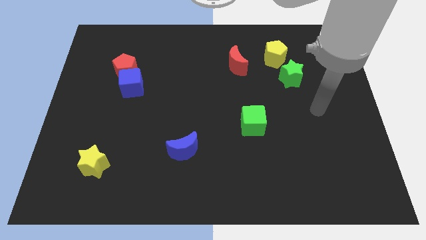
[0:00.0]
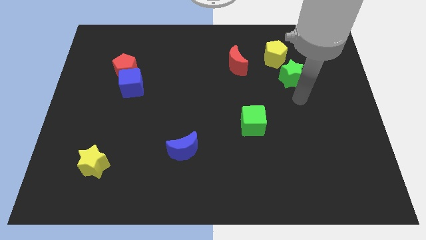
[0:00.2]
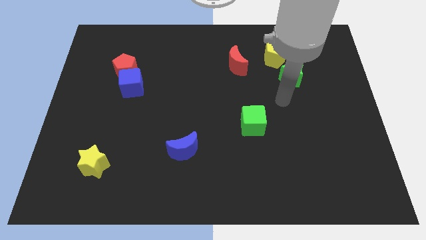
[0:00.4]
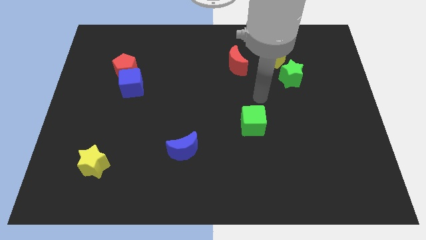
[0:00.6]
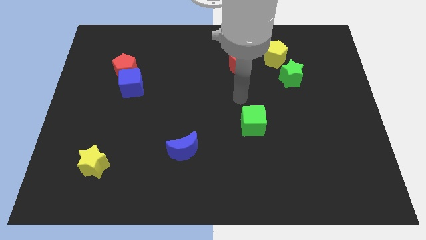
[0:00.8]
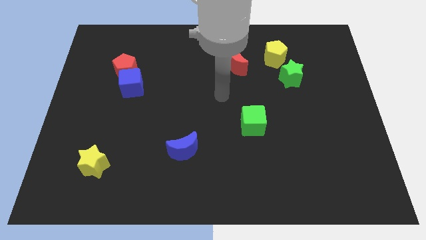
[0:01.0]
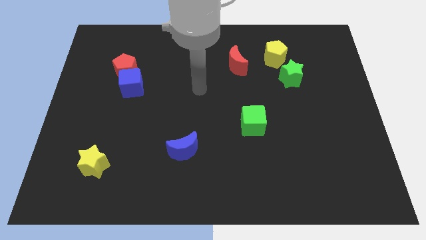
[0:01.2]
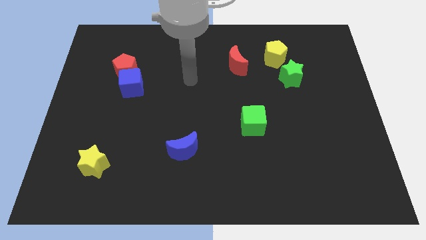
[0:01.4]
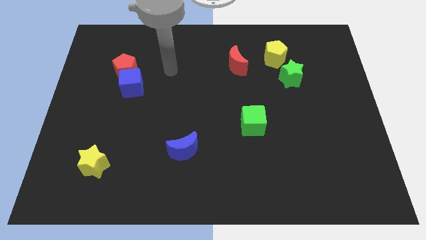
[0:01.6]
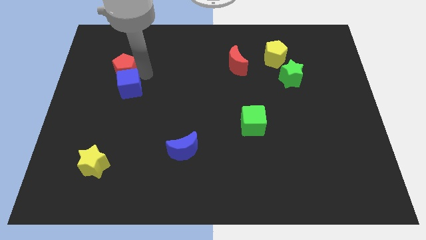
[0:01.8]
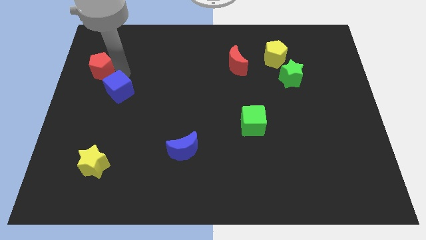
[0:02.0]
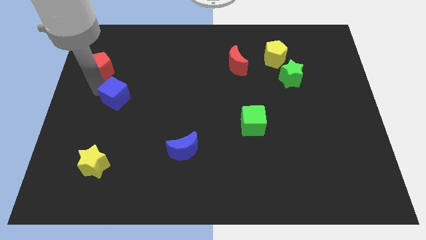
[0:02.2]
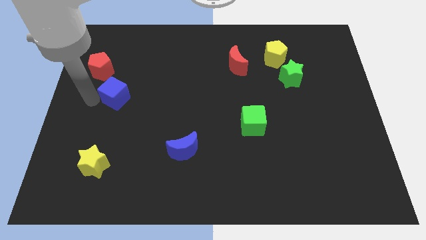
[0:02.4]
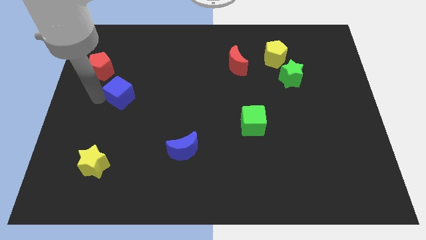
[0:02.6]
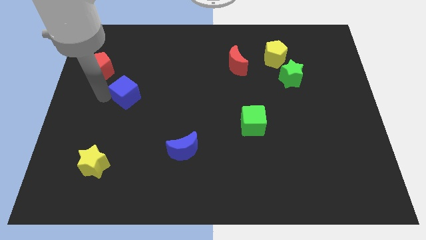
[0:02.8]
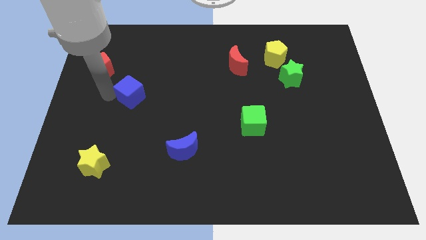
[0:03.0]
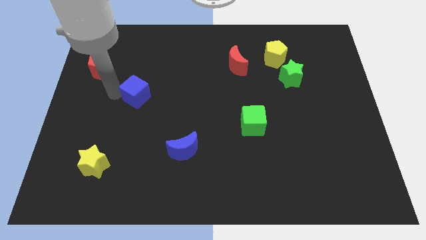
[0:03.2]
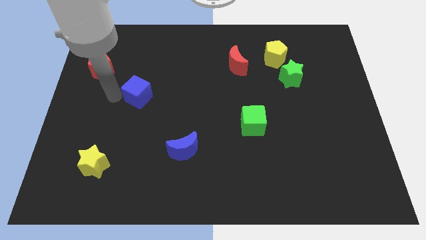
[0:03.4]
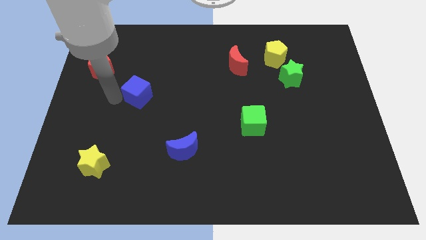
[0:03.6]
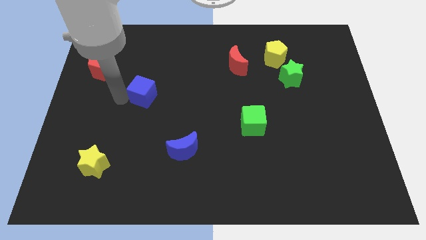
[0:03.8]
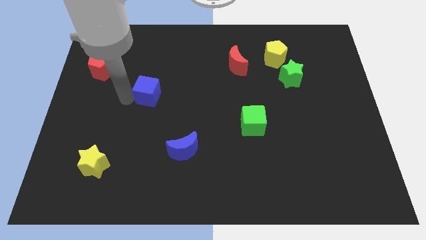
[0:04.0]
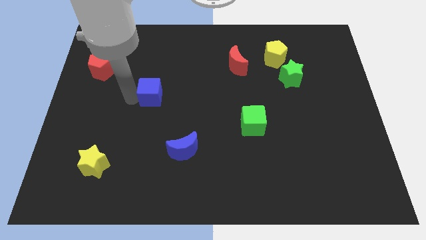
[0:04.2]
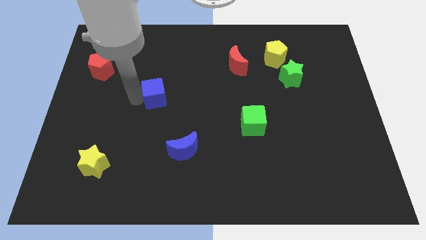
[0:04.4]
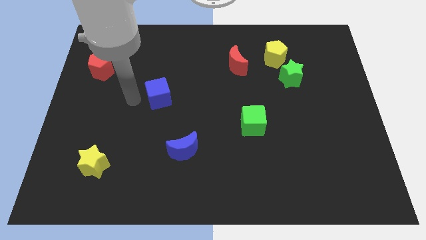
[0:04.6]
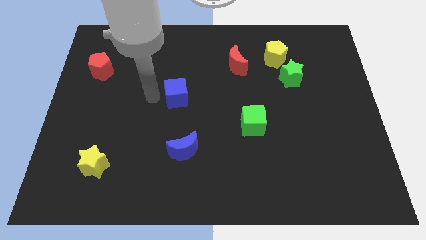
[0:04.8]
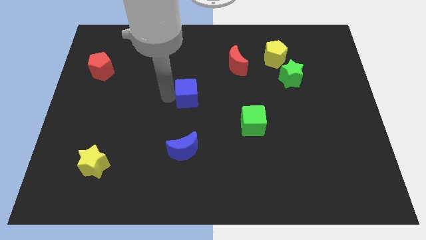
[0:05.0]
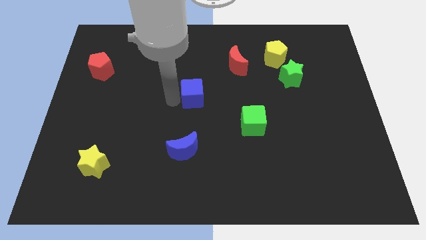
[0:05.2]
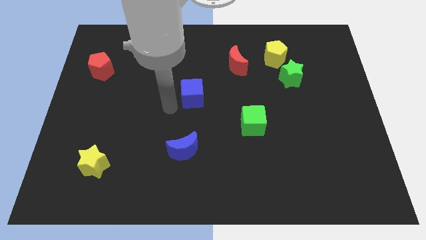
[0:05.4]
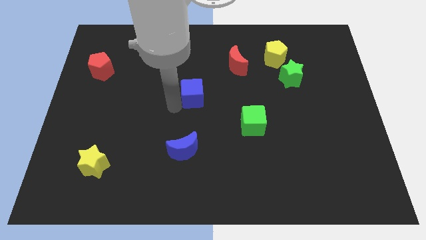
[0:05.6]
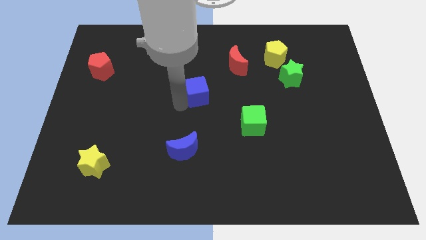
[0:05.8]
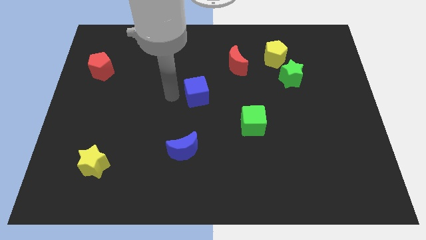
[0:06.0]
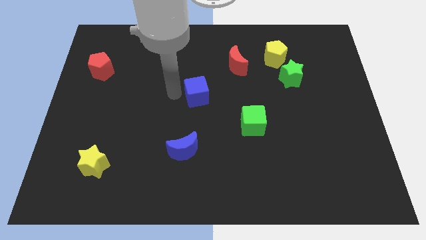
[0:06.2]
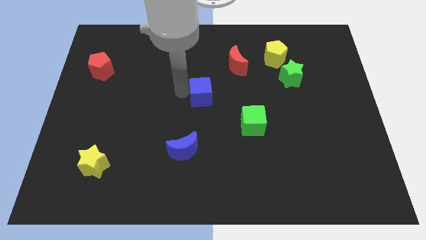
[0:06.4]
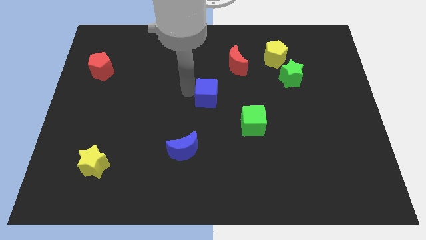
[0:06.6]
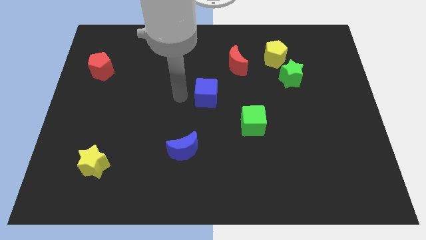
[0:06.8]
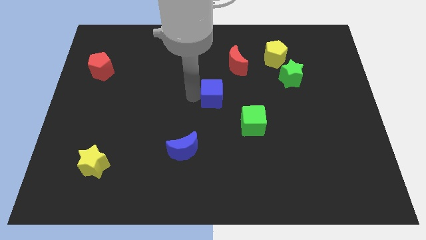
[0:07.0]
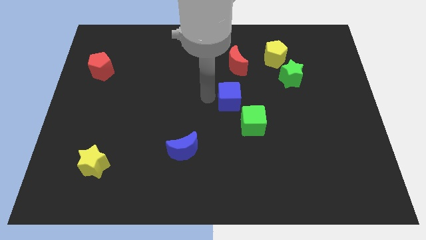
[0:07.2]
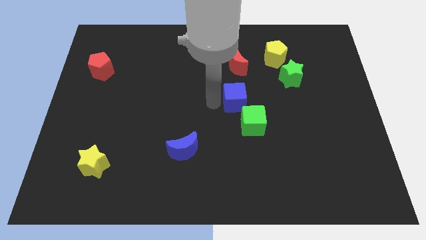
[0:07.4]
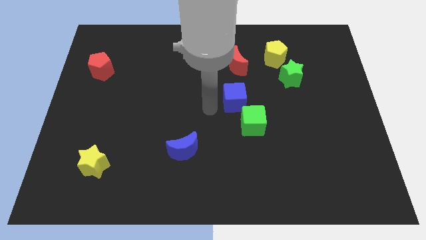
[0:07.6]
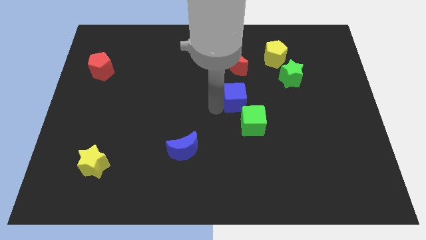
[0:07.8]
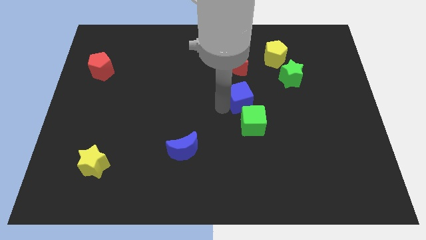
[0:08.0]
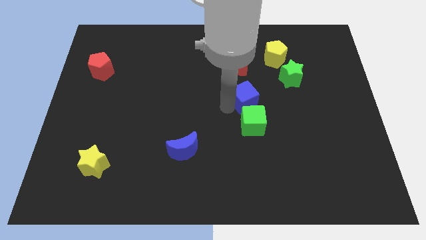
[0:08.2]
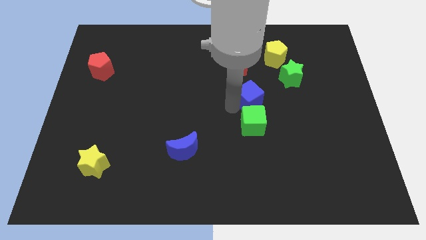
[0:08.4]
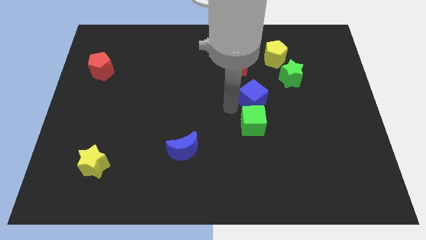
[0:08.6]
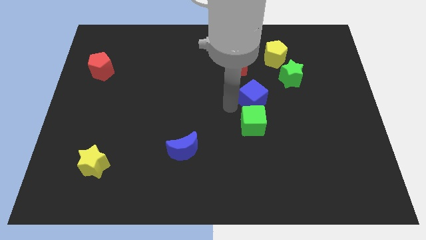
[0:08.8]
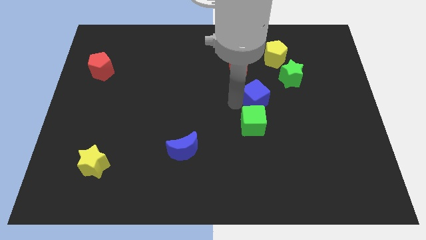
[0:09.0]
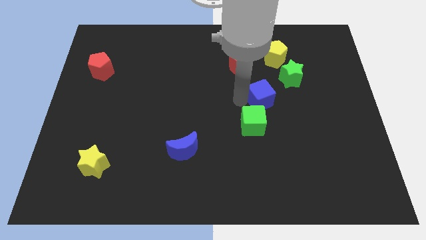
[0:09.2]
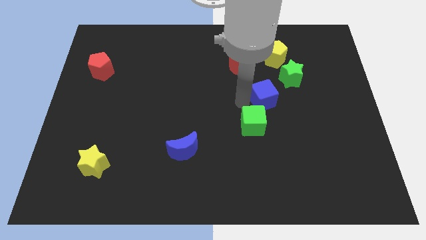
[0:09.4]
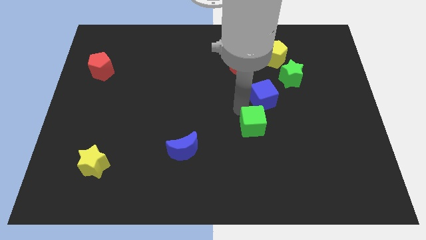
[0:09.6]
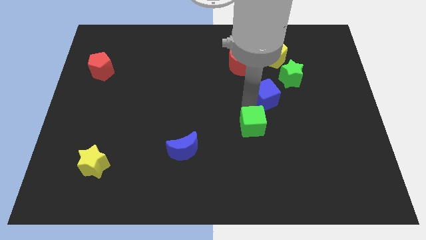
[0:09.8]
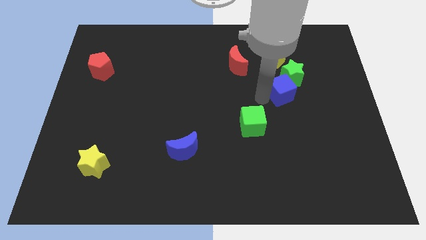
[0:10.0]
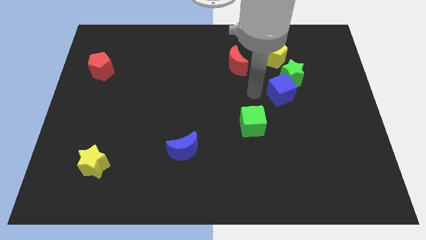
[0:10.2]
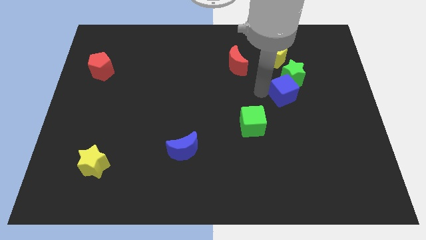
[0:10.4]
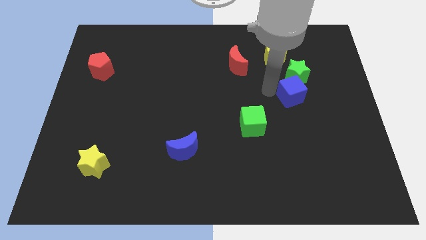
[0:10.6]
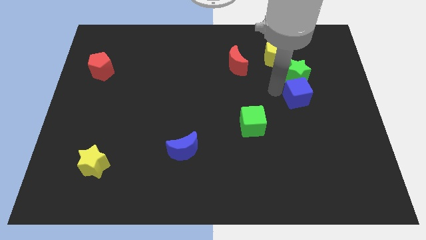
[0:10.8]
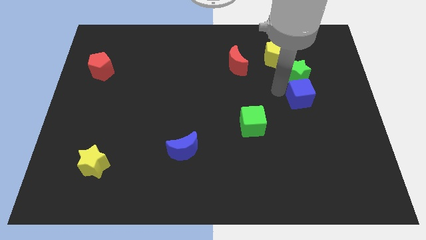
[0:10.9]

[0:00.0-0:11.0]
put the blue cube to the bottom right side of the green star

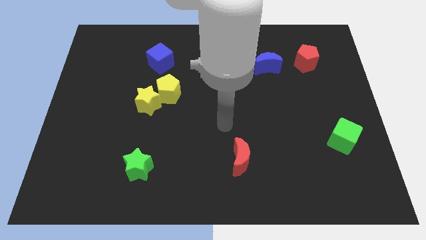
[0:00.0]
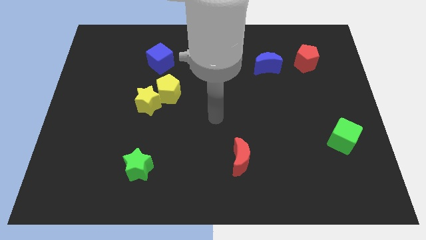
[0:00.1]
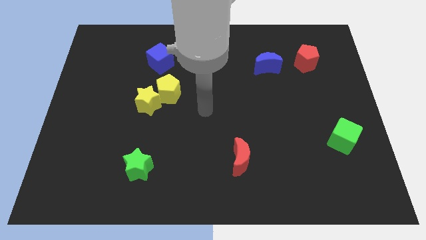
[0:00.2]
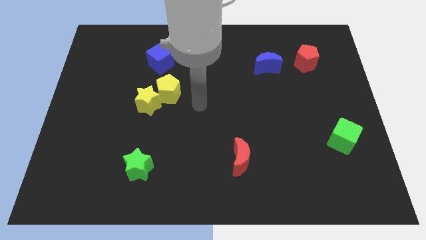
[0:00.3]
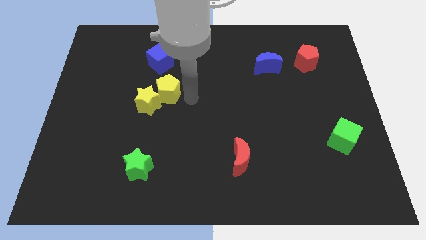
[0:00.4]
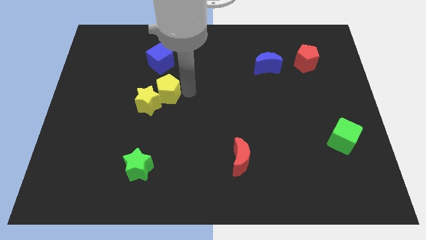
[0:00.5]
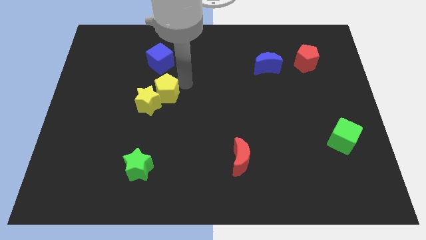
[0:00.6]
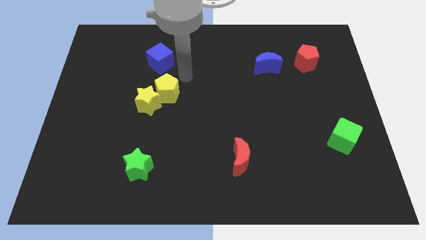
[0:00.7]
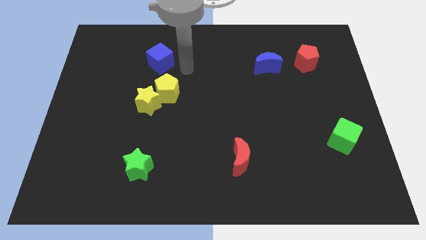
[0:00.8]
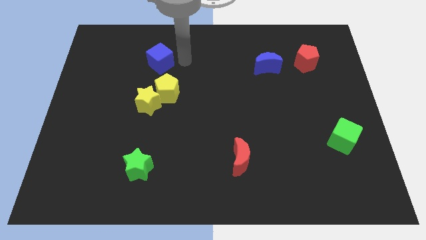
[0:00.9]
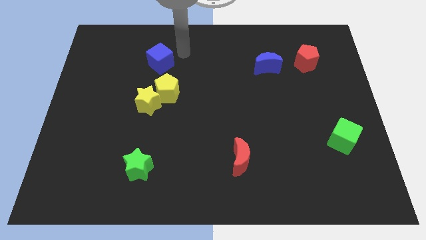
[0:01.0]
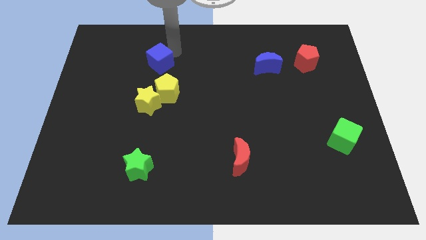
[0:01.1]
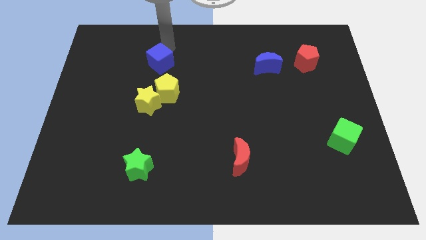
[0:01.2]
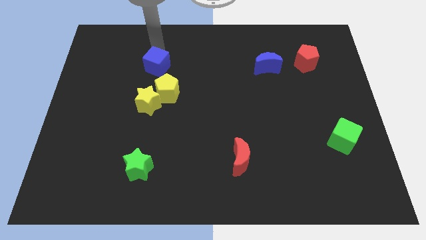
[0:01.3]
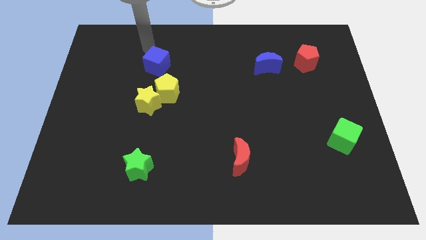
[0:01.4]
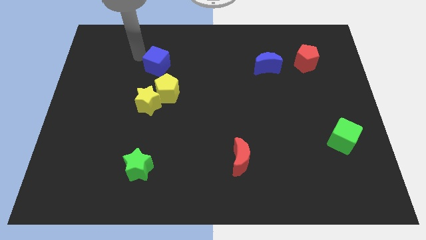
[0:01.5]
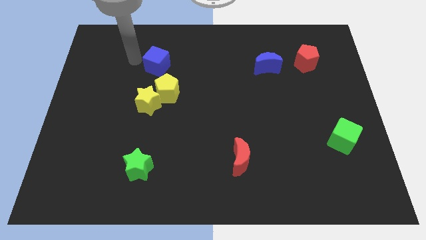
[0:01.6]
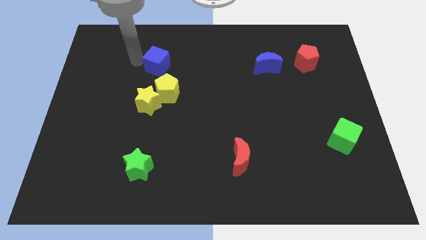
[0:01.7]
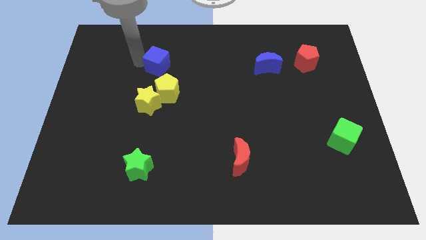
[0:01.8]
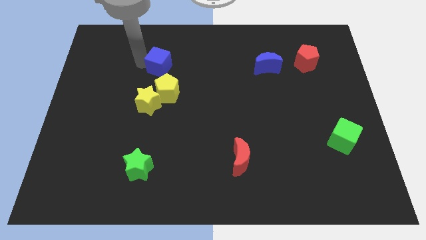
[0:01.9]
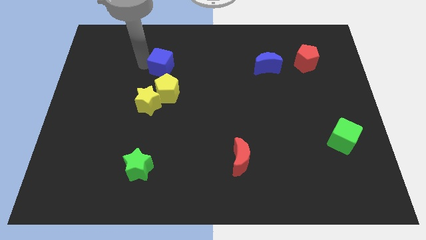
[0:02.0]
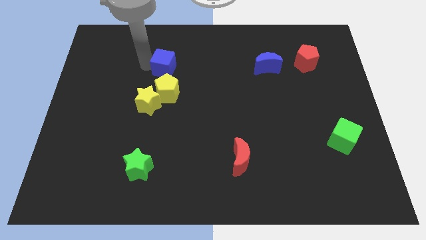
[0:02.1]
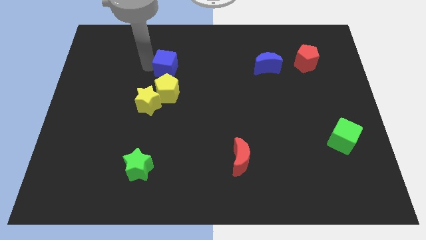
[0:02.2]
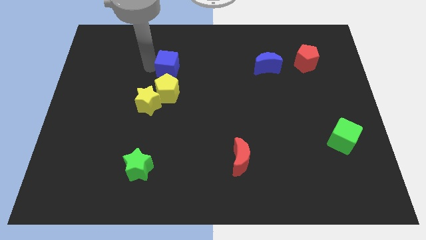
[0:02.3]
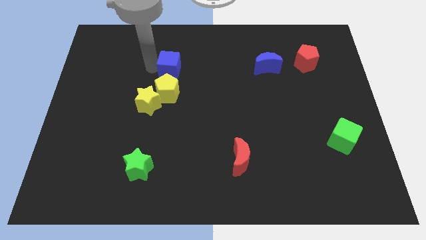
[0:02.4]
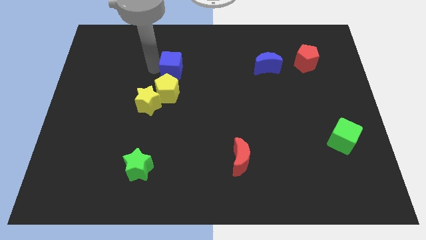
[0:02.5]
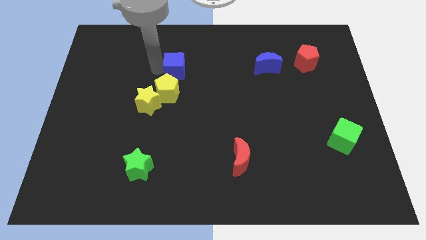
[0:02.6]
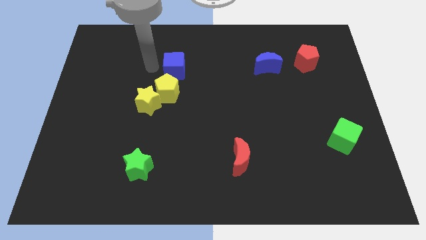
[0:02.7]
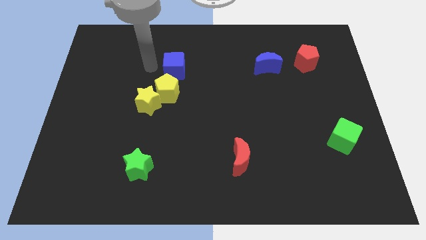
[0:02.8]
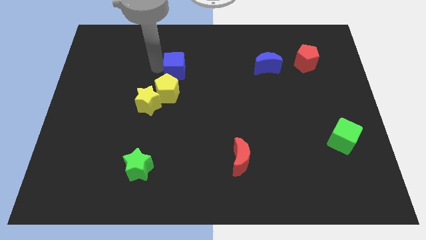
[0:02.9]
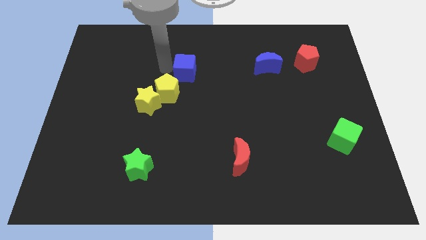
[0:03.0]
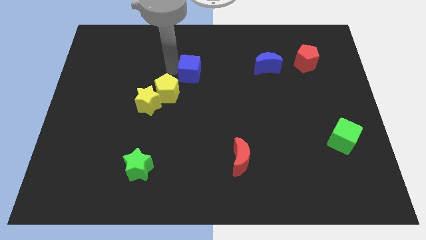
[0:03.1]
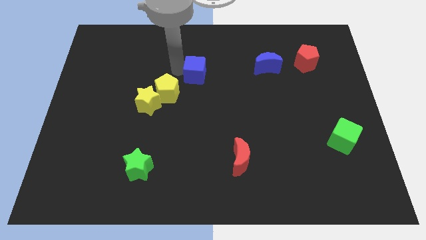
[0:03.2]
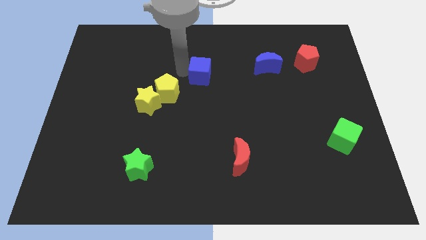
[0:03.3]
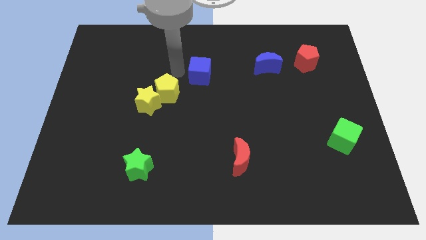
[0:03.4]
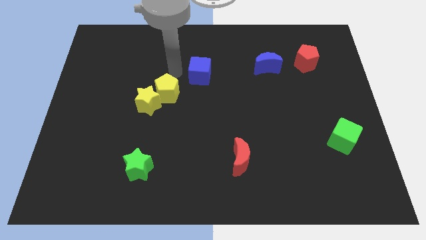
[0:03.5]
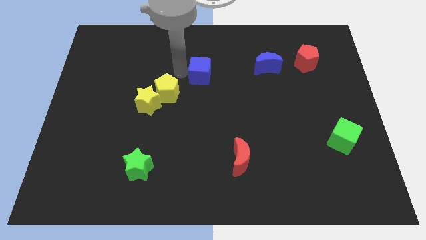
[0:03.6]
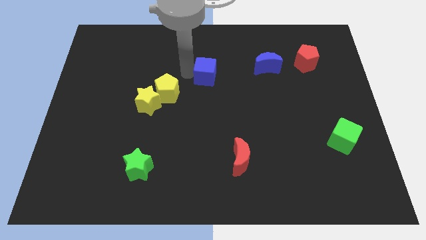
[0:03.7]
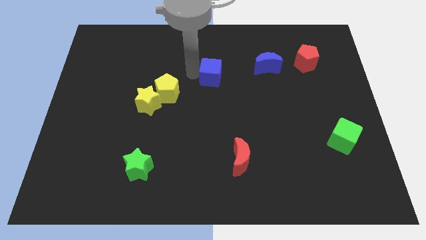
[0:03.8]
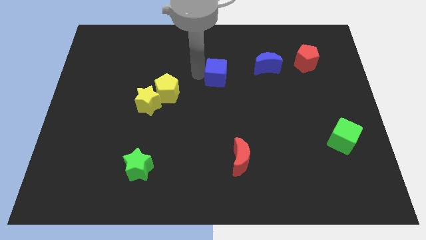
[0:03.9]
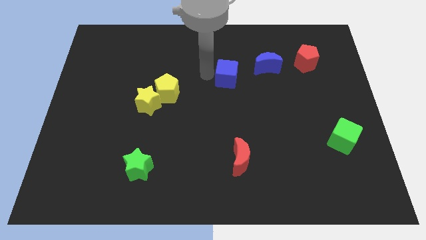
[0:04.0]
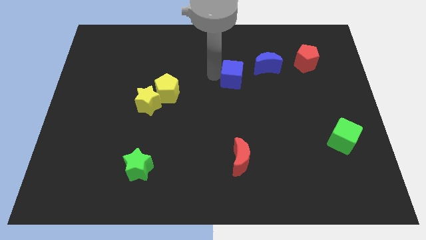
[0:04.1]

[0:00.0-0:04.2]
push the blue cube to the bottom left of the blue moon
